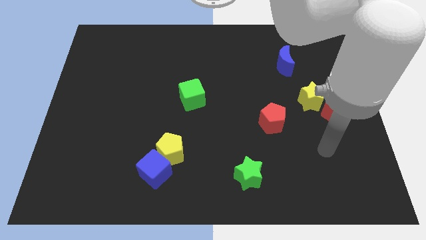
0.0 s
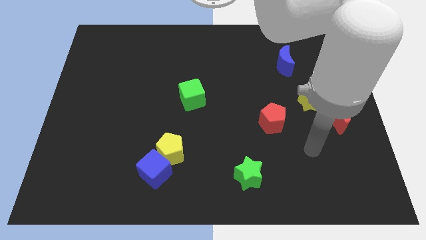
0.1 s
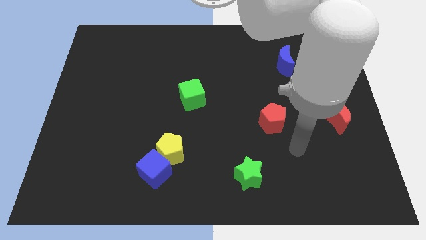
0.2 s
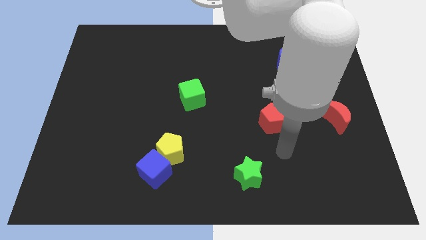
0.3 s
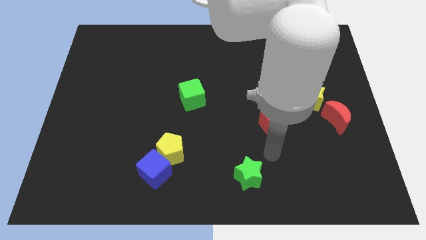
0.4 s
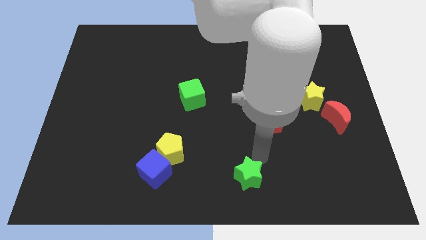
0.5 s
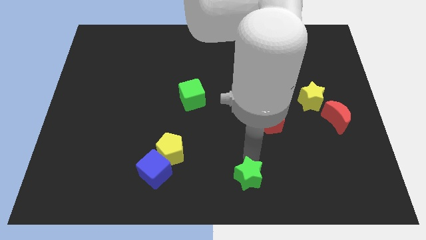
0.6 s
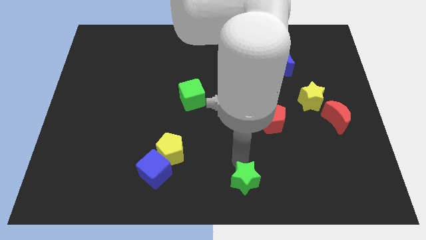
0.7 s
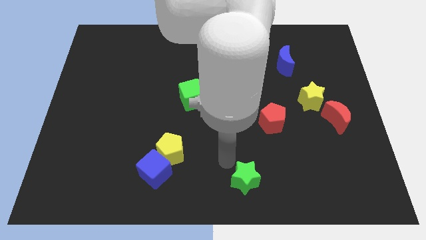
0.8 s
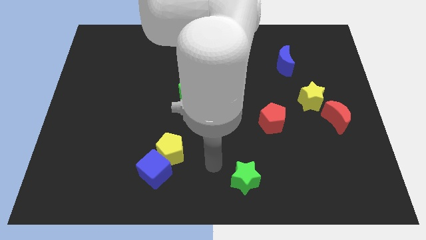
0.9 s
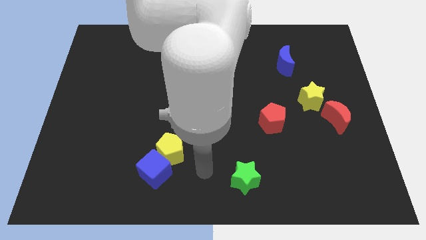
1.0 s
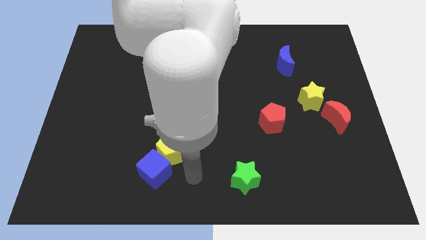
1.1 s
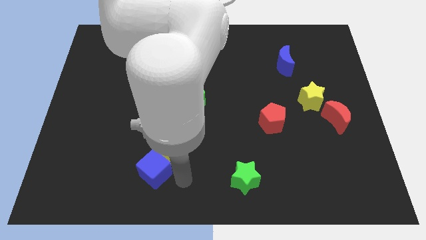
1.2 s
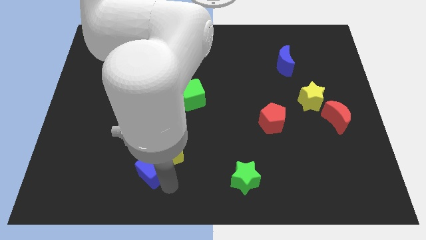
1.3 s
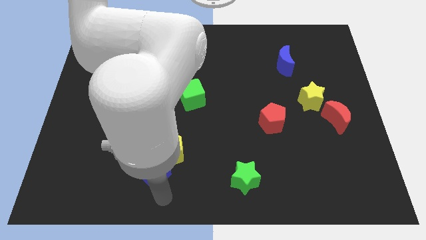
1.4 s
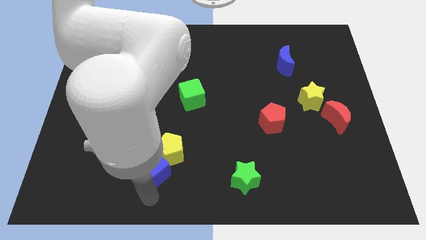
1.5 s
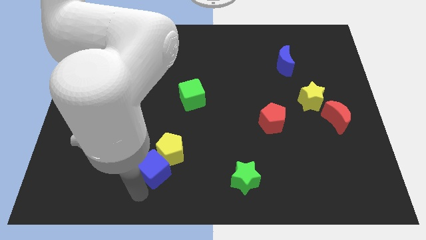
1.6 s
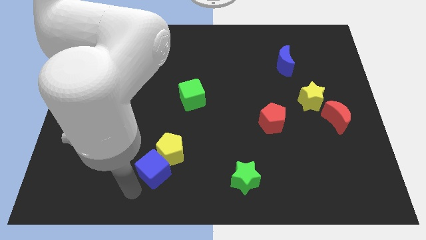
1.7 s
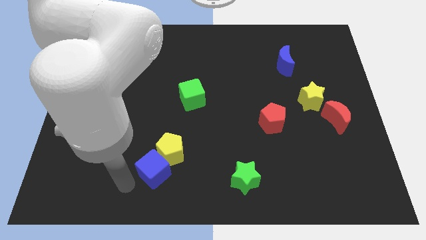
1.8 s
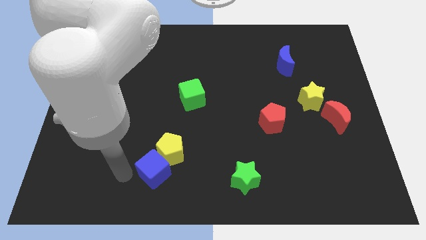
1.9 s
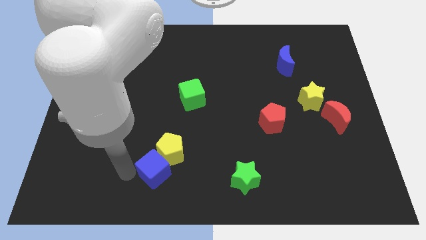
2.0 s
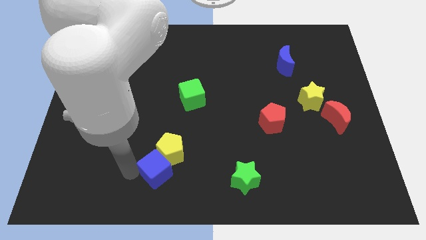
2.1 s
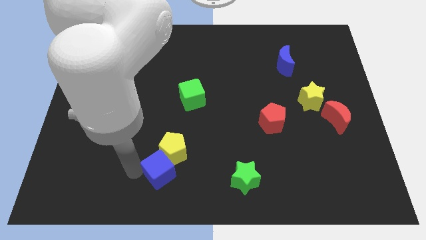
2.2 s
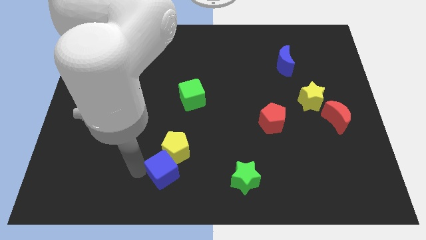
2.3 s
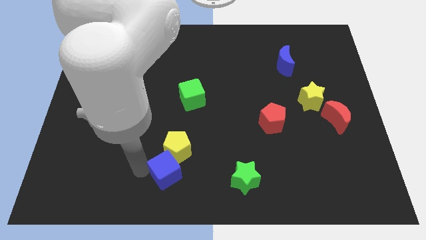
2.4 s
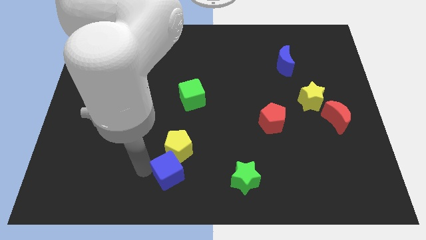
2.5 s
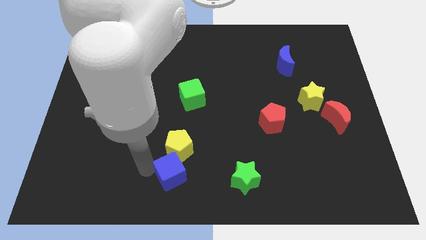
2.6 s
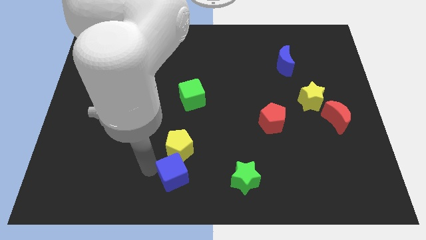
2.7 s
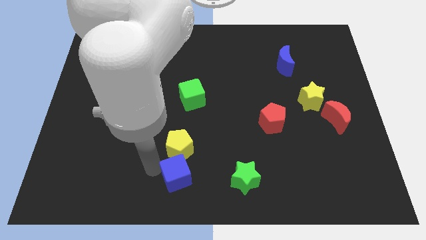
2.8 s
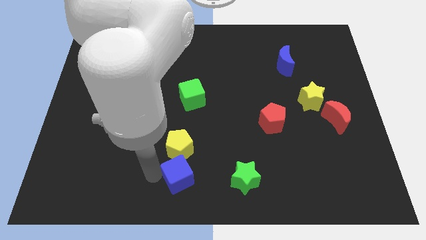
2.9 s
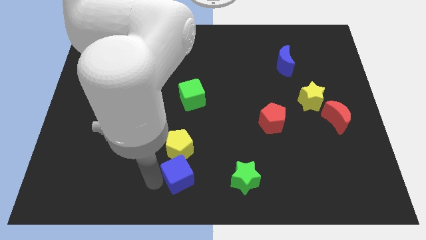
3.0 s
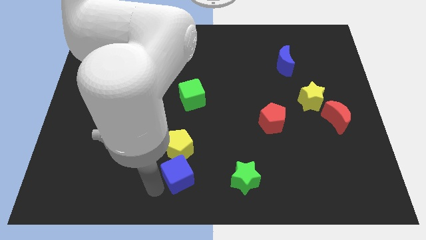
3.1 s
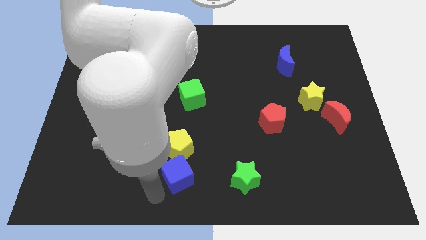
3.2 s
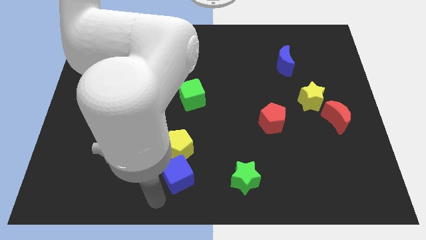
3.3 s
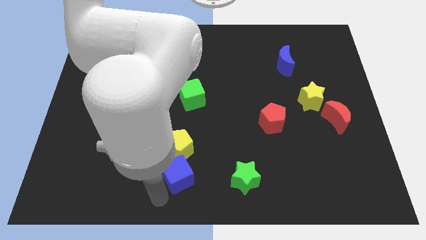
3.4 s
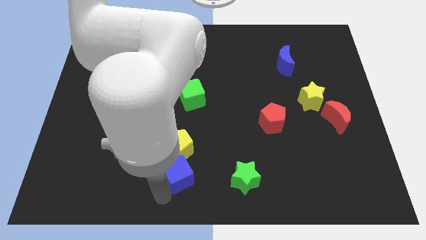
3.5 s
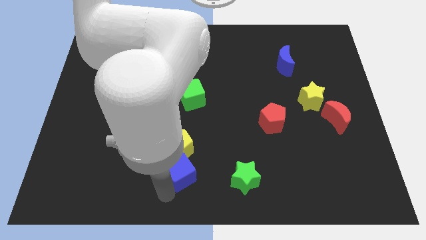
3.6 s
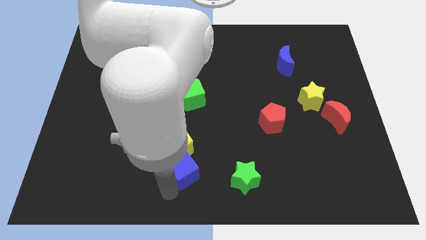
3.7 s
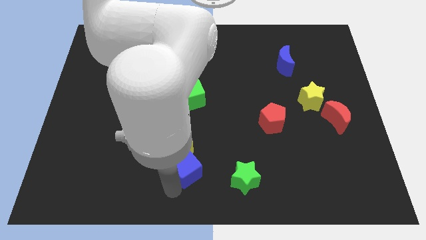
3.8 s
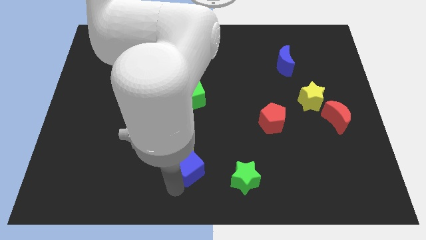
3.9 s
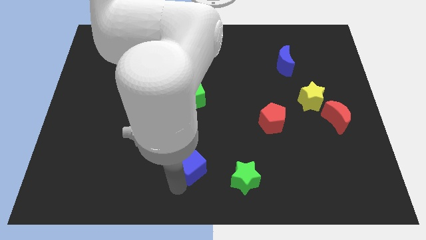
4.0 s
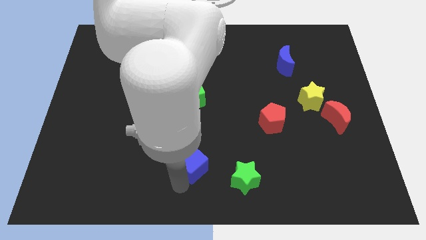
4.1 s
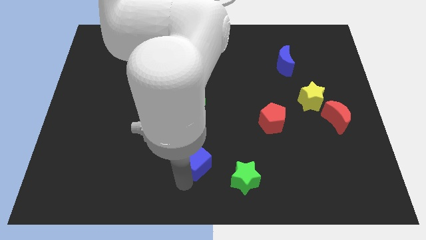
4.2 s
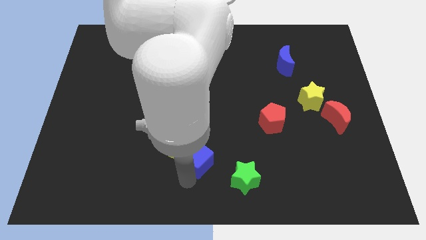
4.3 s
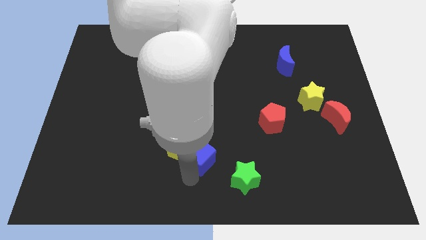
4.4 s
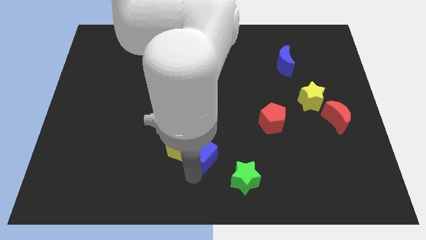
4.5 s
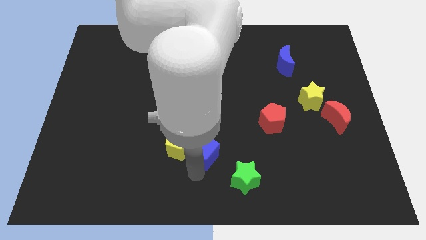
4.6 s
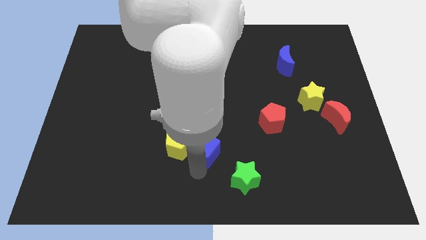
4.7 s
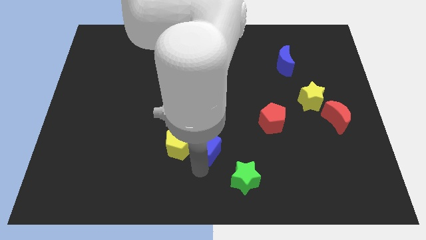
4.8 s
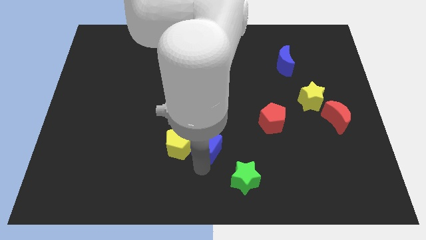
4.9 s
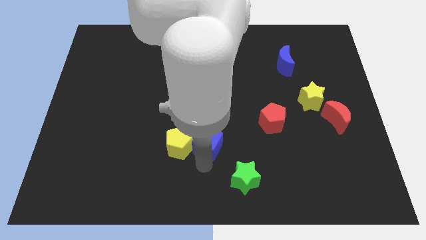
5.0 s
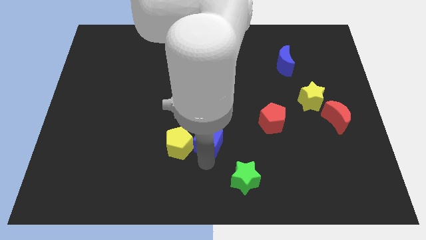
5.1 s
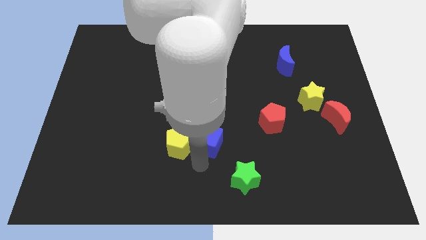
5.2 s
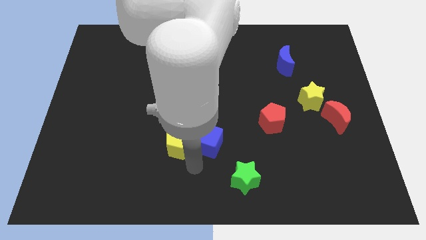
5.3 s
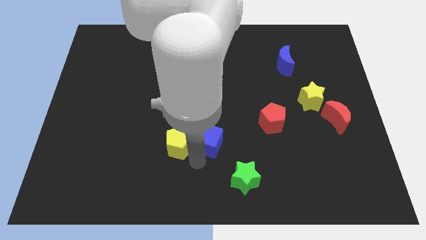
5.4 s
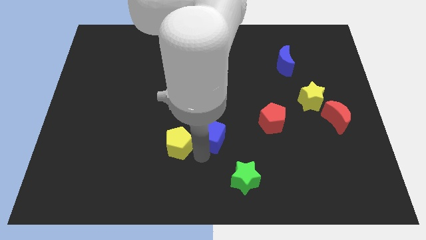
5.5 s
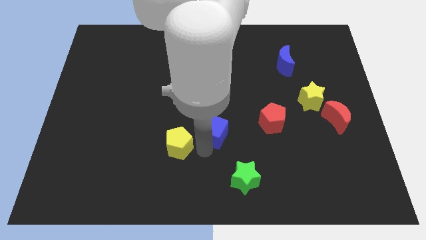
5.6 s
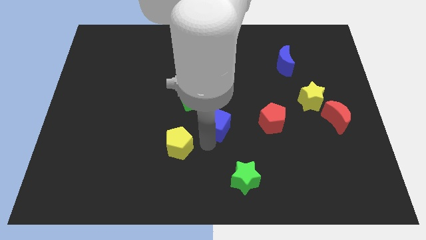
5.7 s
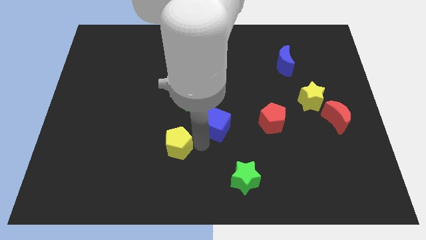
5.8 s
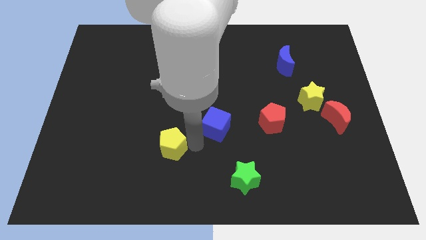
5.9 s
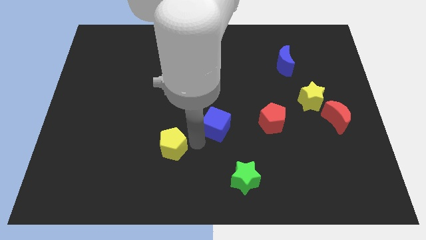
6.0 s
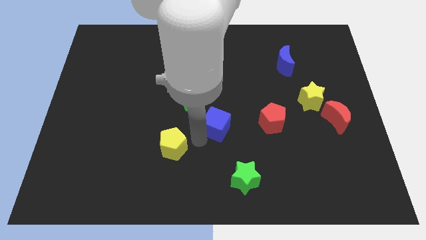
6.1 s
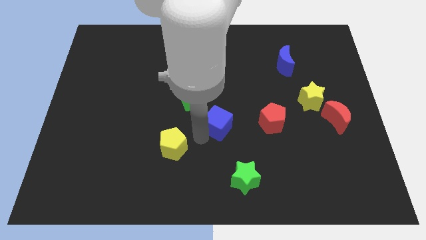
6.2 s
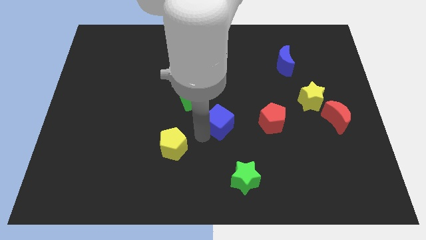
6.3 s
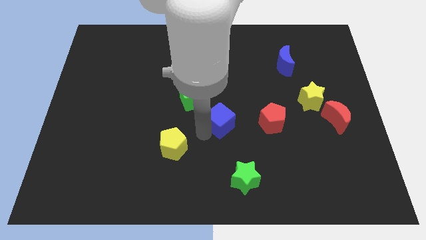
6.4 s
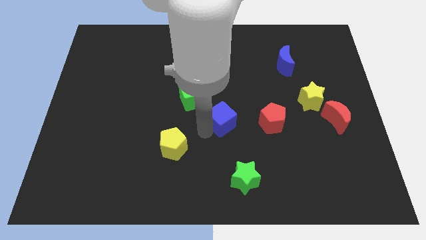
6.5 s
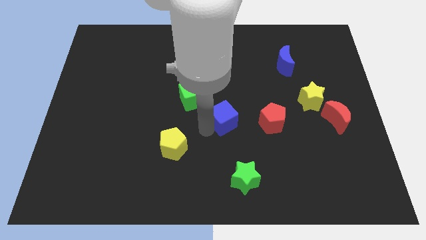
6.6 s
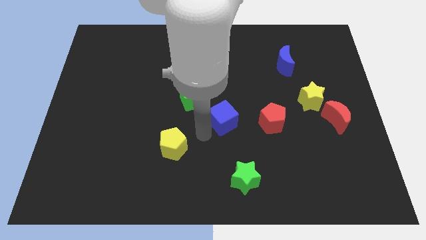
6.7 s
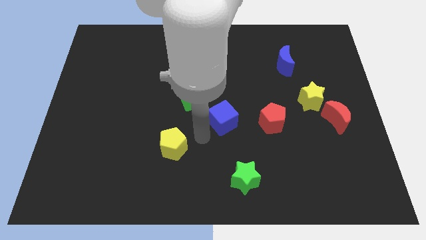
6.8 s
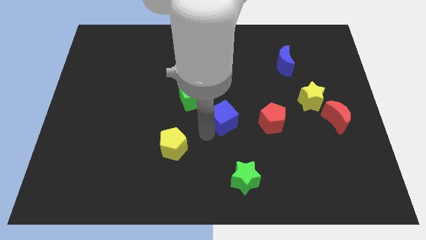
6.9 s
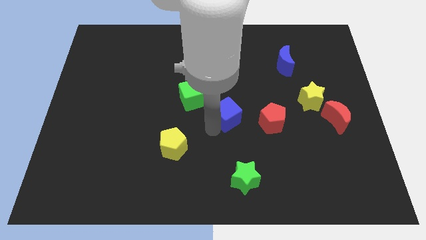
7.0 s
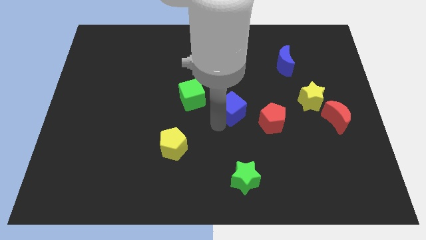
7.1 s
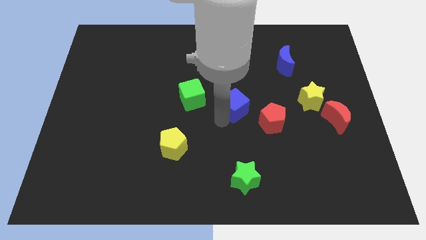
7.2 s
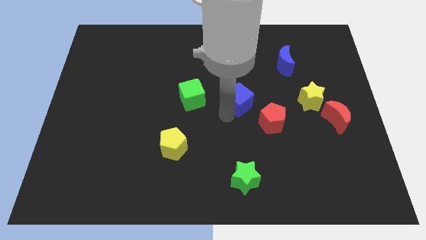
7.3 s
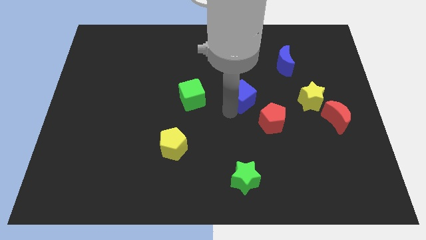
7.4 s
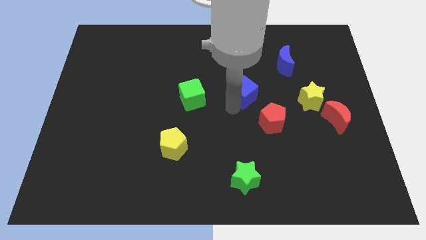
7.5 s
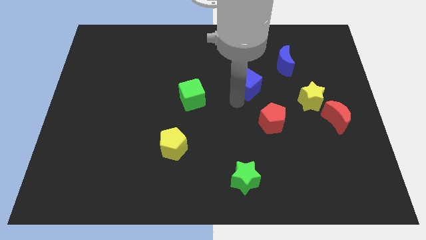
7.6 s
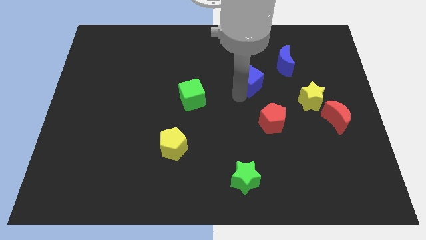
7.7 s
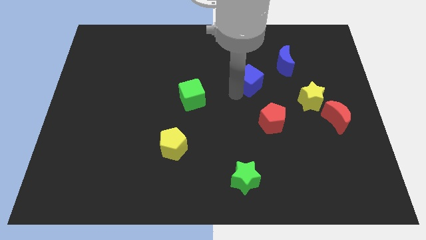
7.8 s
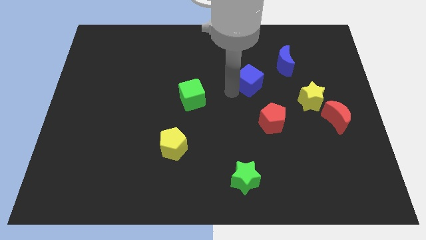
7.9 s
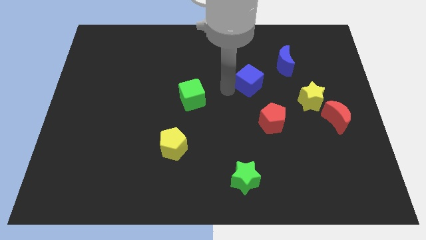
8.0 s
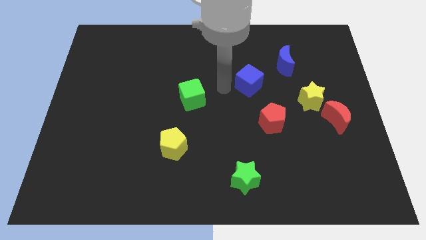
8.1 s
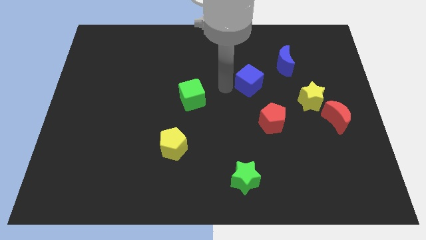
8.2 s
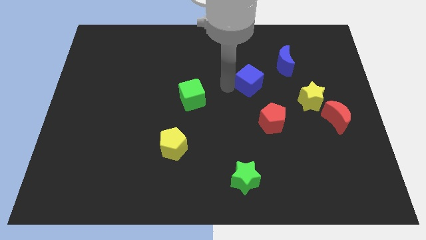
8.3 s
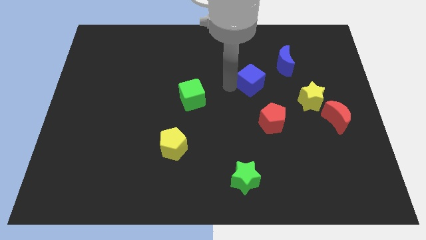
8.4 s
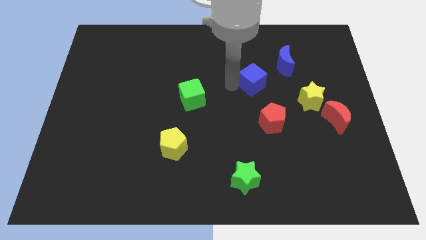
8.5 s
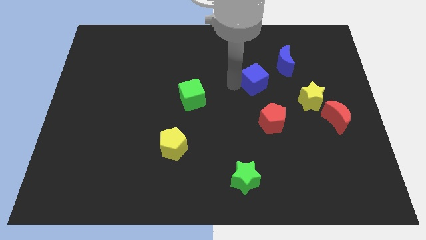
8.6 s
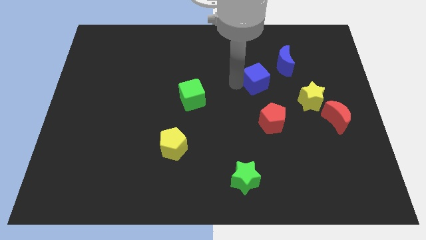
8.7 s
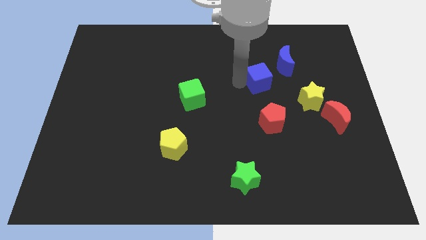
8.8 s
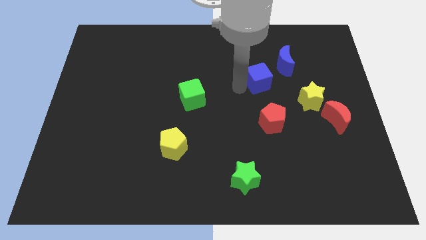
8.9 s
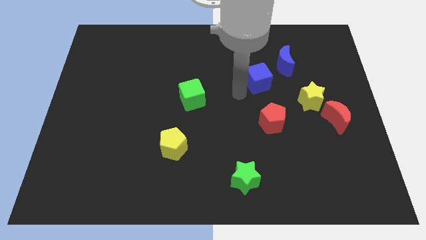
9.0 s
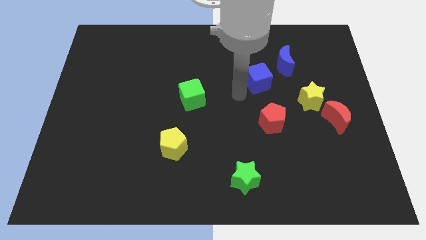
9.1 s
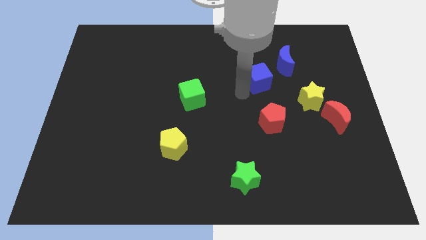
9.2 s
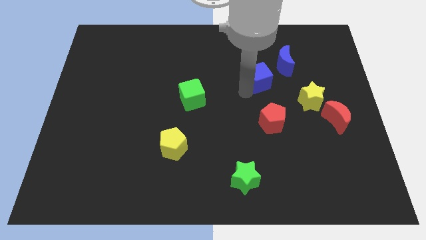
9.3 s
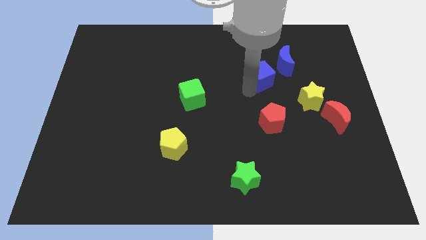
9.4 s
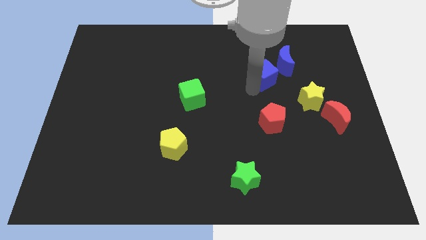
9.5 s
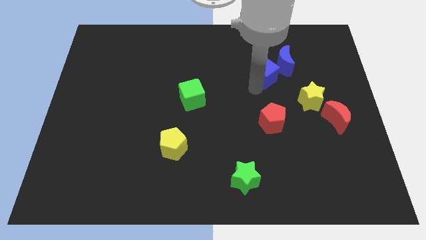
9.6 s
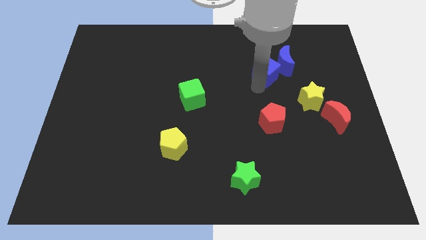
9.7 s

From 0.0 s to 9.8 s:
move the blue cube next to the blue moon
